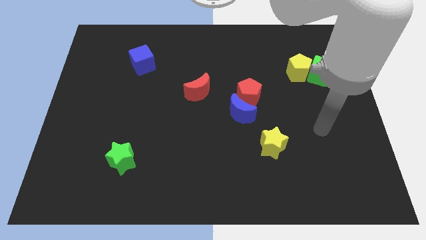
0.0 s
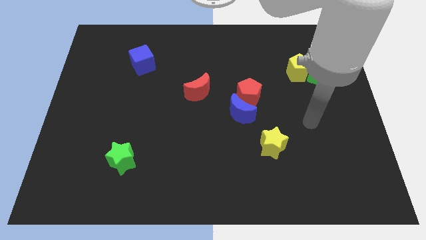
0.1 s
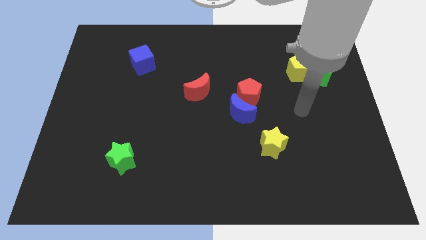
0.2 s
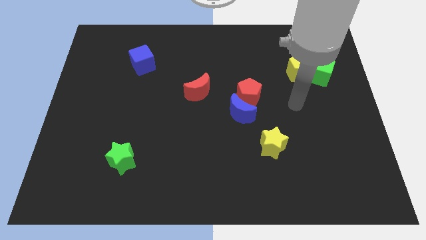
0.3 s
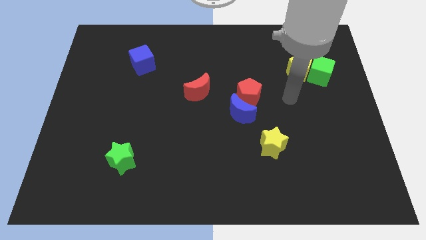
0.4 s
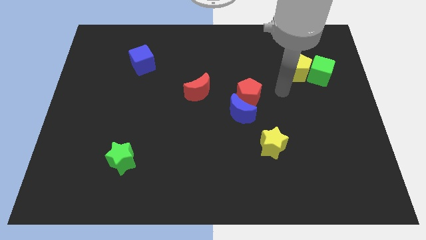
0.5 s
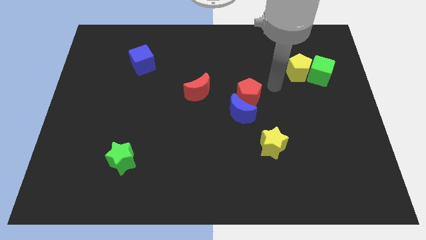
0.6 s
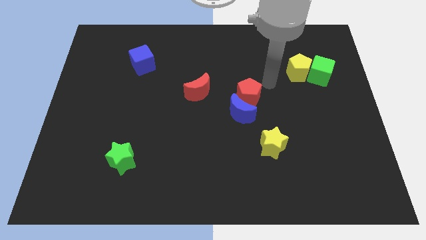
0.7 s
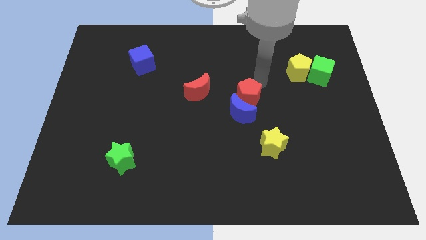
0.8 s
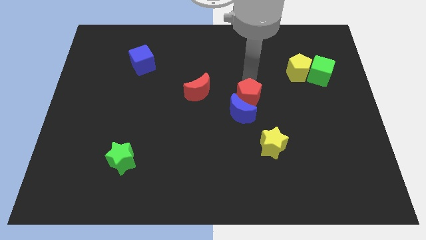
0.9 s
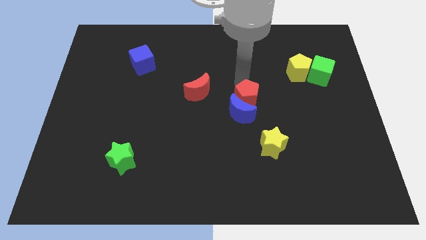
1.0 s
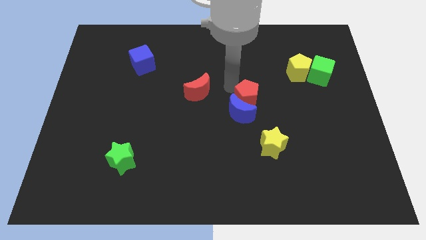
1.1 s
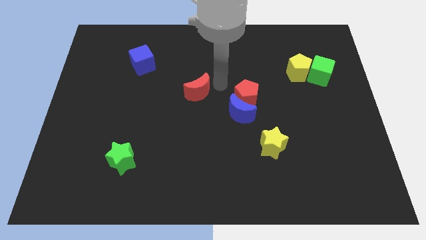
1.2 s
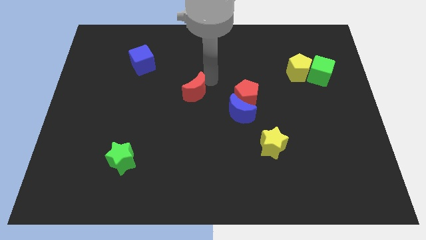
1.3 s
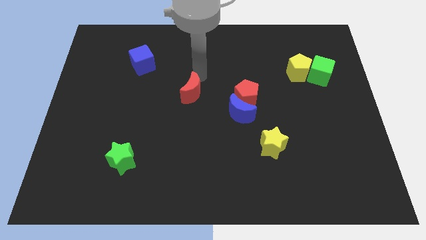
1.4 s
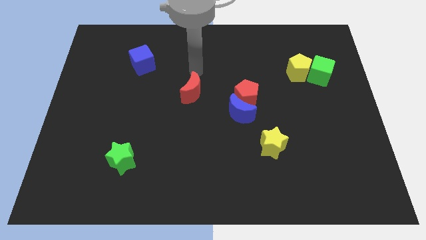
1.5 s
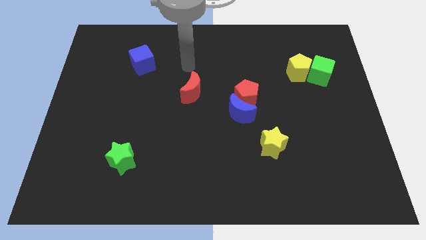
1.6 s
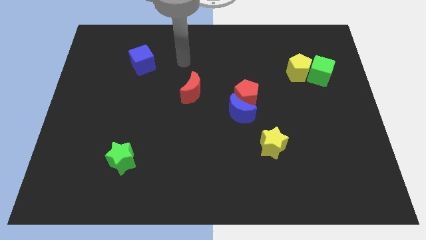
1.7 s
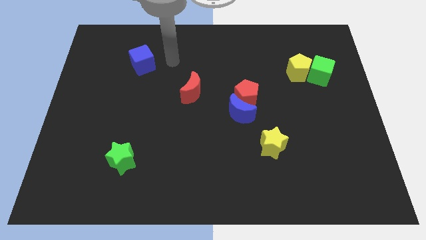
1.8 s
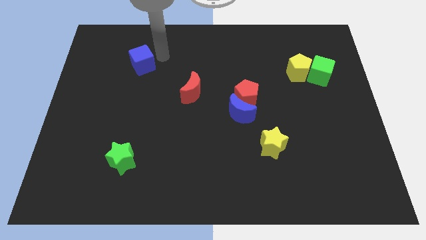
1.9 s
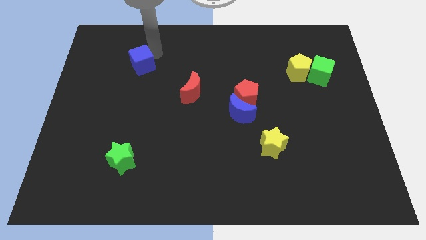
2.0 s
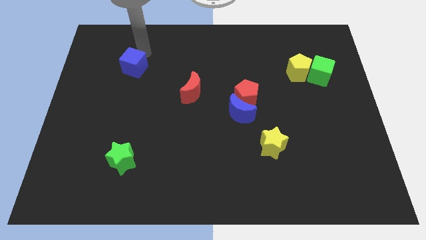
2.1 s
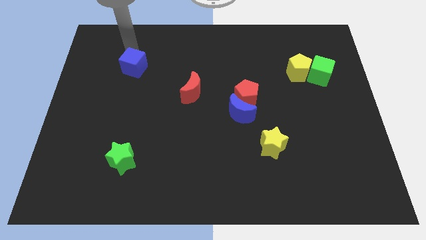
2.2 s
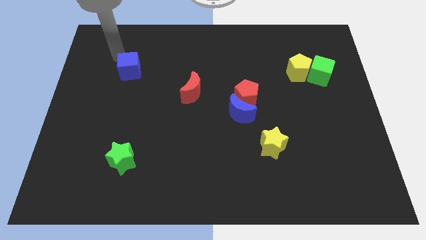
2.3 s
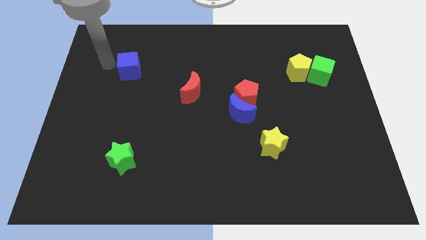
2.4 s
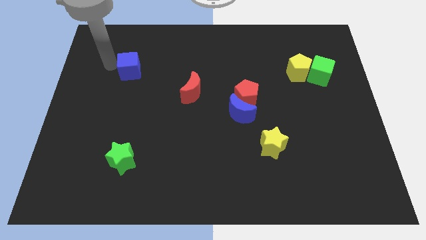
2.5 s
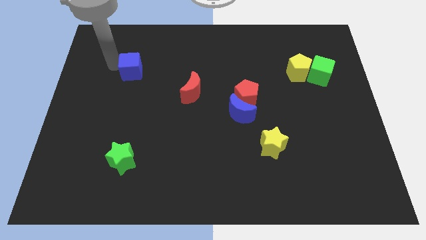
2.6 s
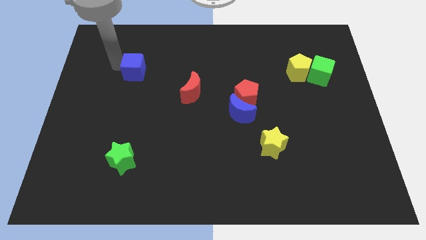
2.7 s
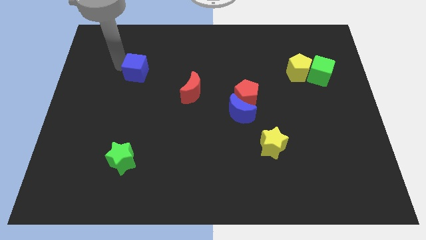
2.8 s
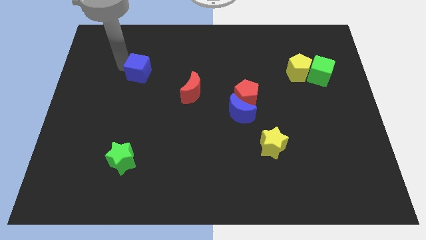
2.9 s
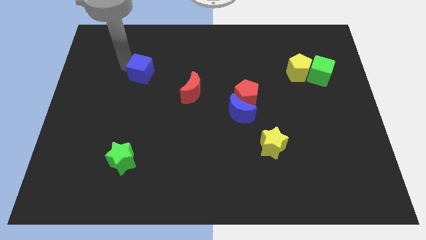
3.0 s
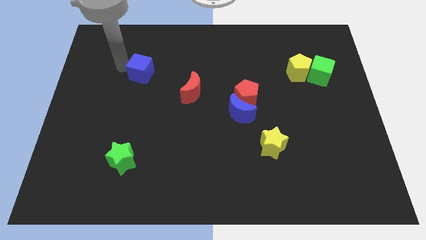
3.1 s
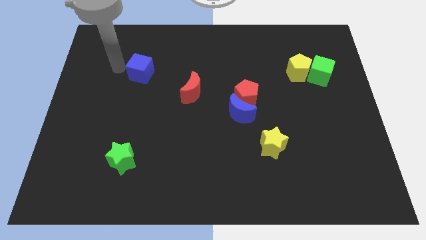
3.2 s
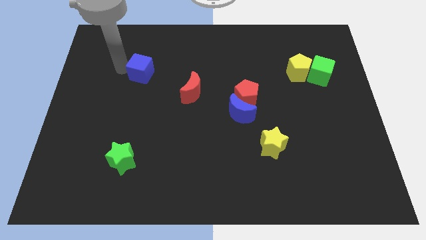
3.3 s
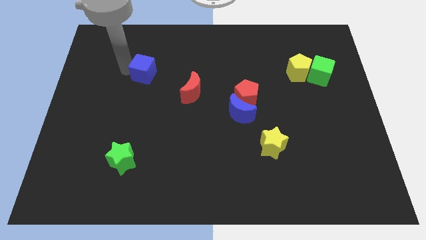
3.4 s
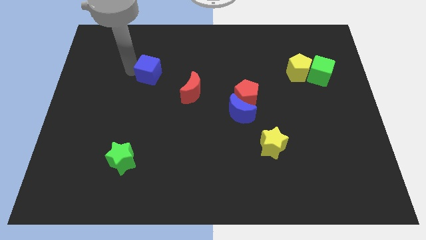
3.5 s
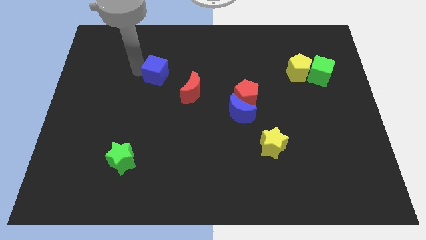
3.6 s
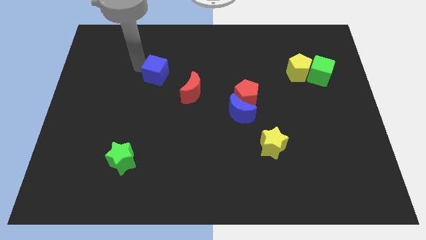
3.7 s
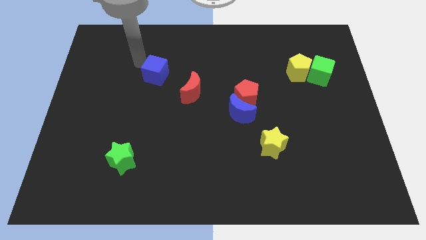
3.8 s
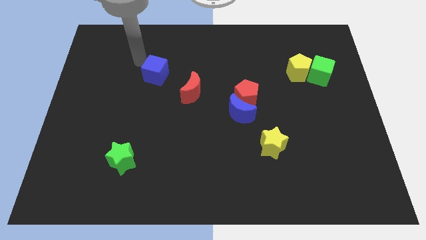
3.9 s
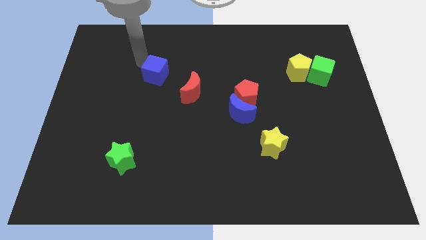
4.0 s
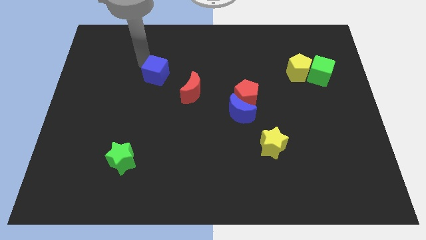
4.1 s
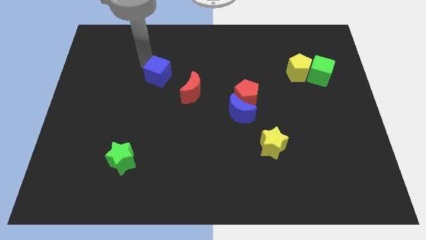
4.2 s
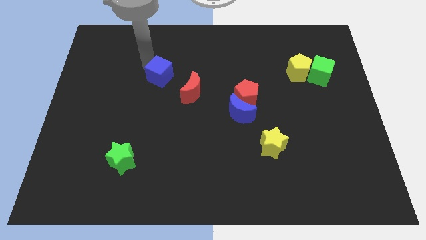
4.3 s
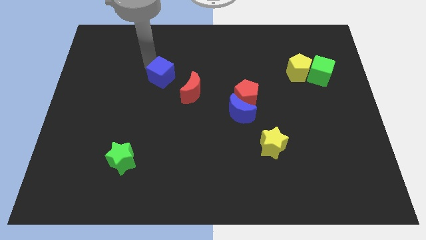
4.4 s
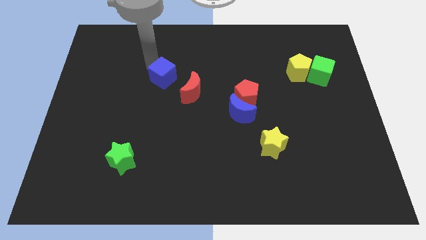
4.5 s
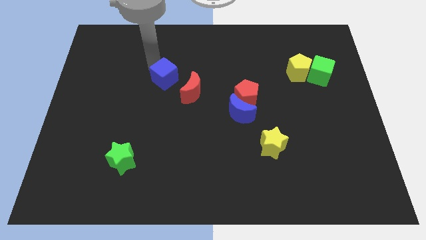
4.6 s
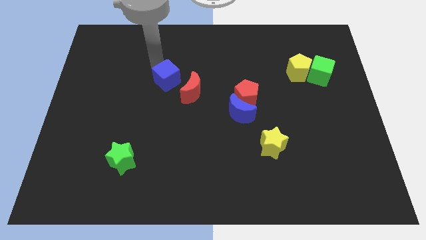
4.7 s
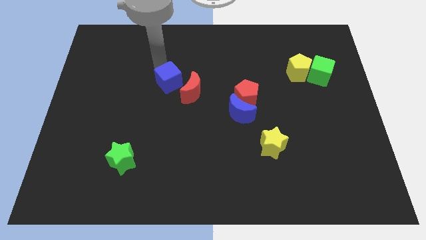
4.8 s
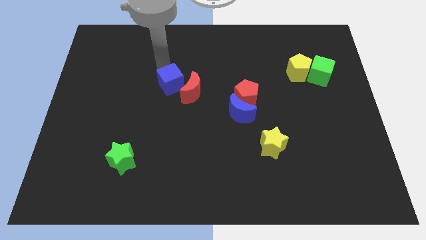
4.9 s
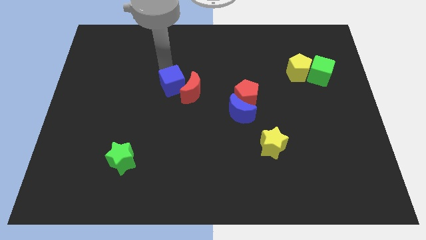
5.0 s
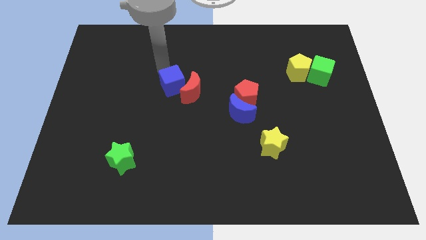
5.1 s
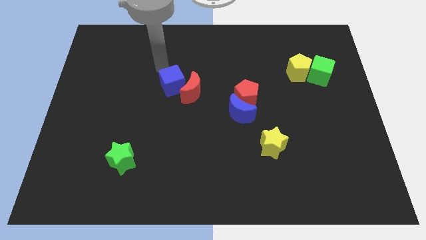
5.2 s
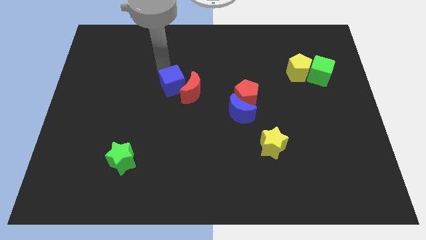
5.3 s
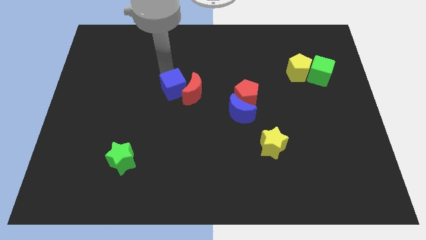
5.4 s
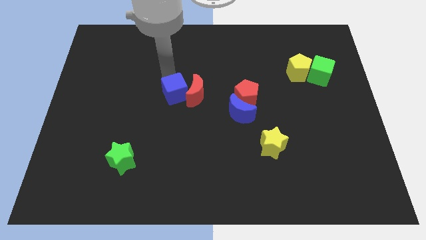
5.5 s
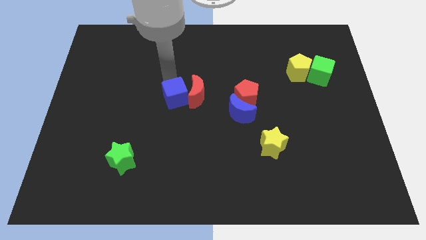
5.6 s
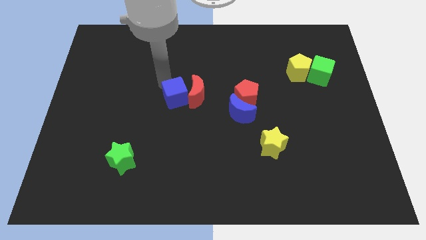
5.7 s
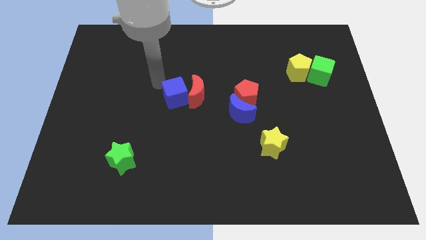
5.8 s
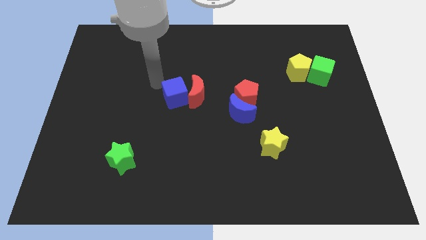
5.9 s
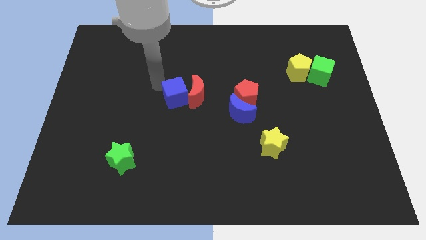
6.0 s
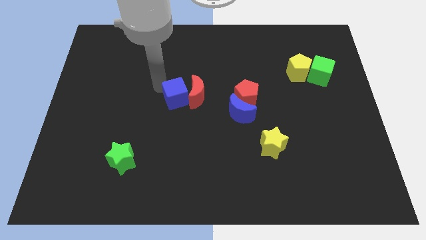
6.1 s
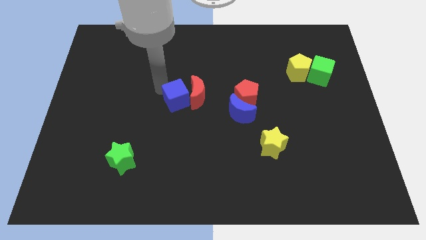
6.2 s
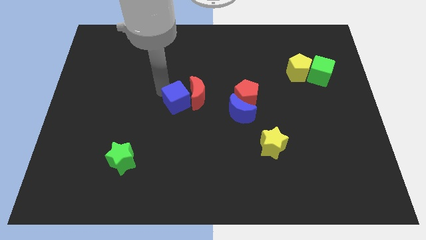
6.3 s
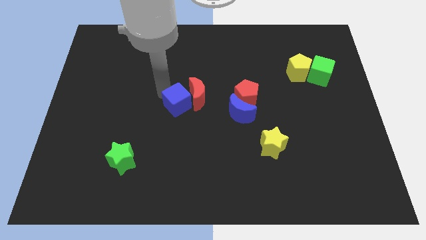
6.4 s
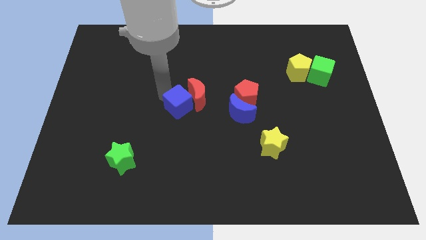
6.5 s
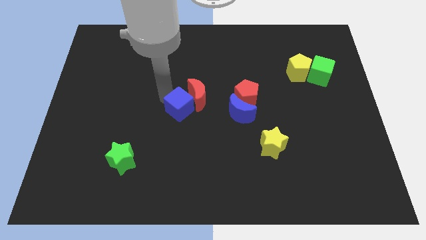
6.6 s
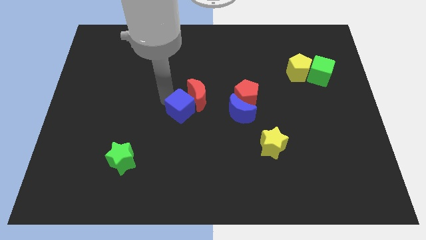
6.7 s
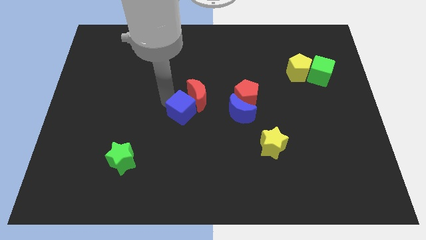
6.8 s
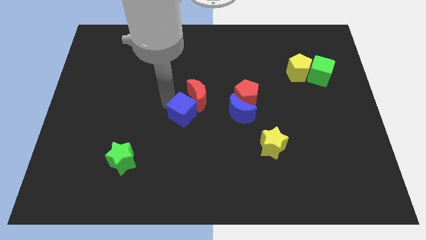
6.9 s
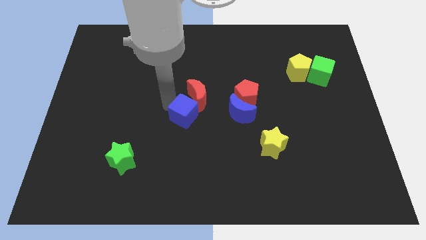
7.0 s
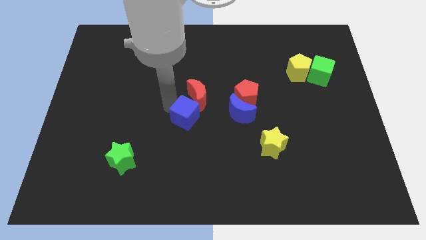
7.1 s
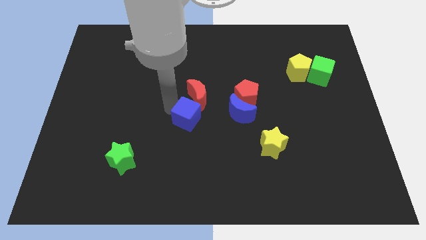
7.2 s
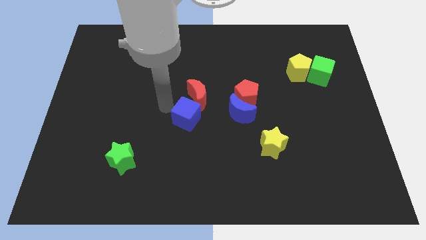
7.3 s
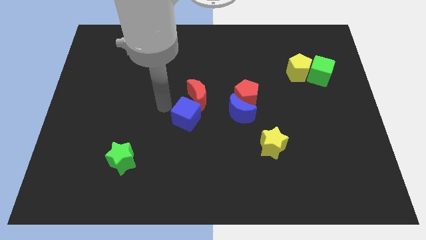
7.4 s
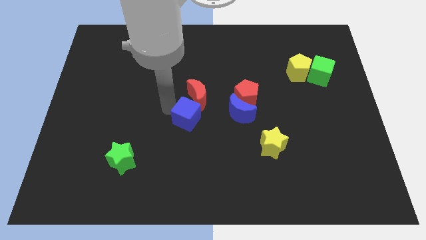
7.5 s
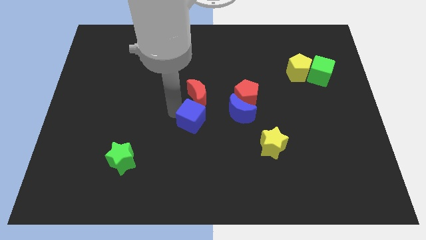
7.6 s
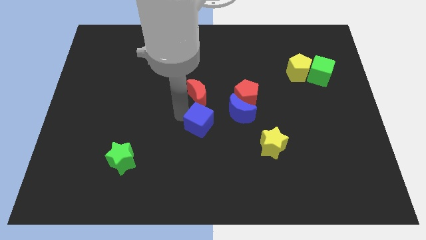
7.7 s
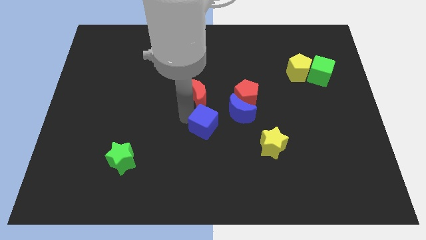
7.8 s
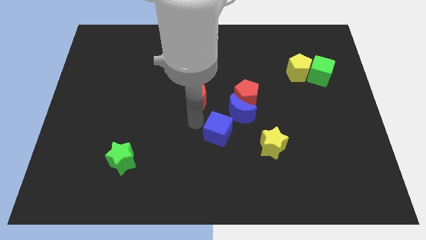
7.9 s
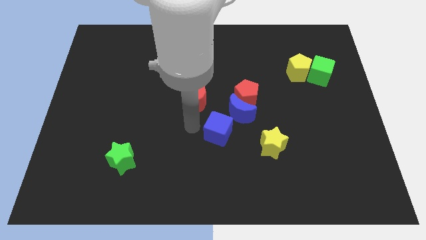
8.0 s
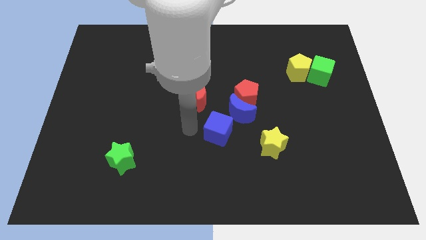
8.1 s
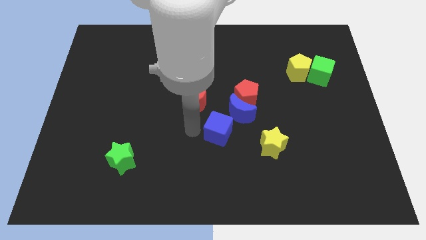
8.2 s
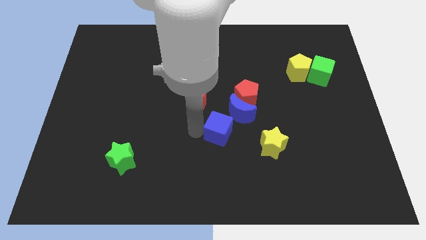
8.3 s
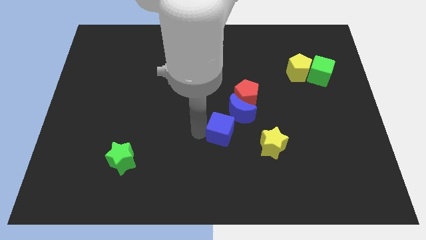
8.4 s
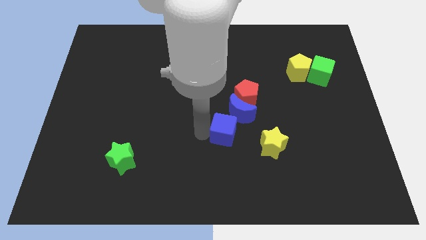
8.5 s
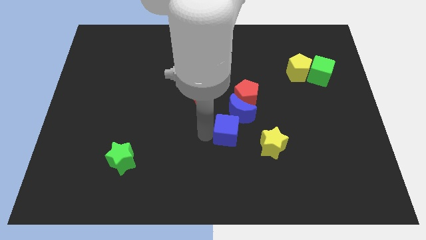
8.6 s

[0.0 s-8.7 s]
move the blue cube below the red pentagon
